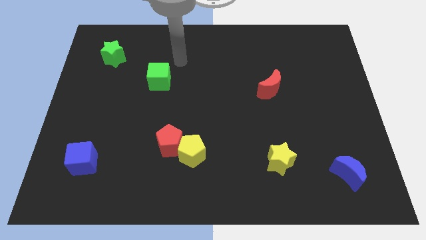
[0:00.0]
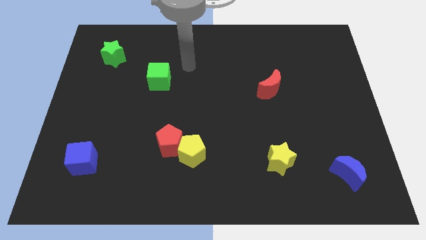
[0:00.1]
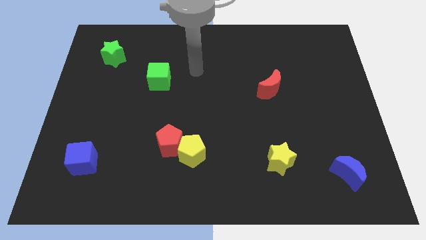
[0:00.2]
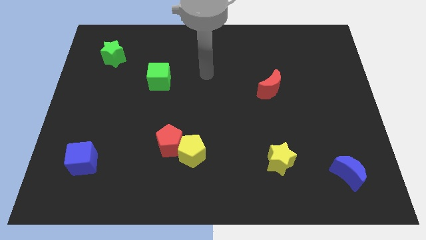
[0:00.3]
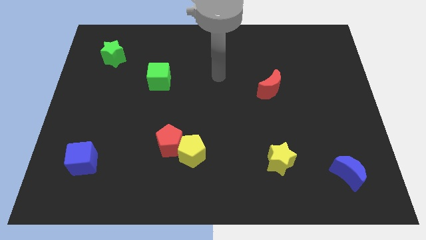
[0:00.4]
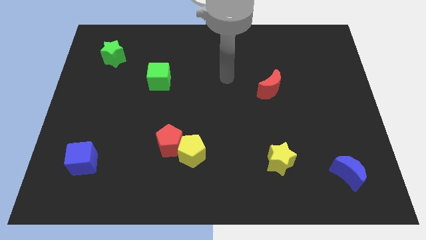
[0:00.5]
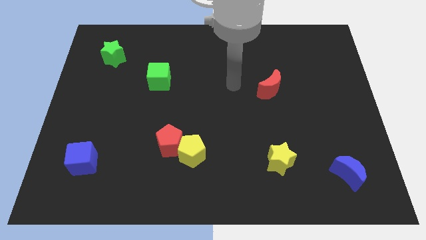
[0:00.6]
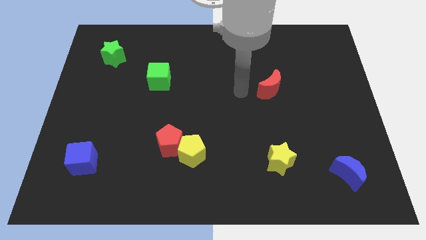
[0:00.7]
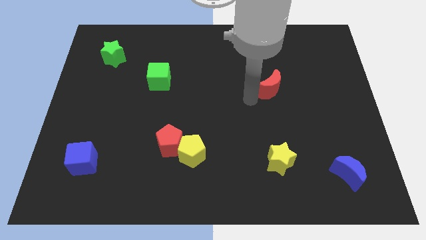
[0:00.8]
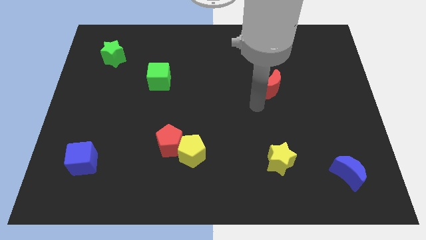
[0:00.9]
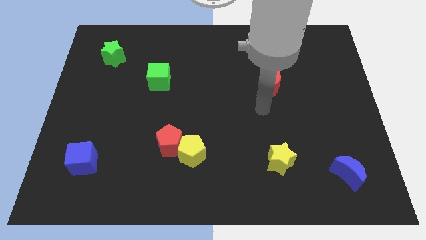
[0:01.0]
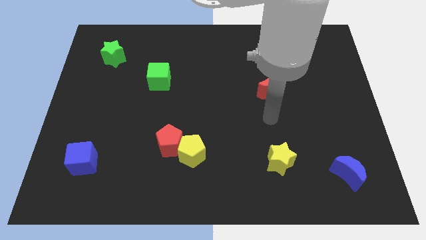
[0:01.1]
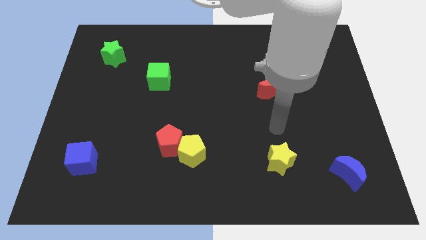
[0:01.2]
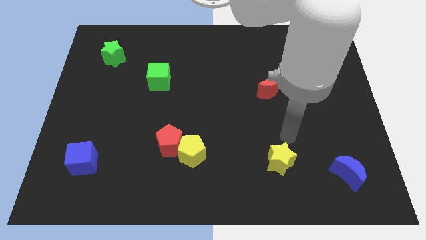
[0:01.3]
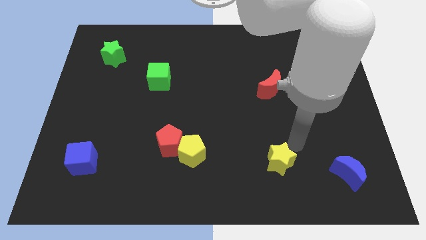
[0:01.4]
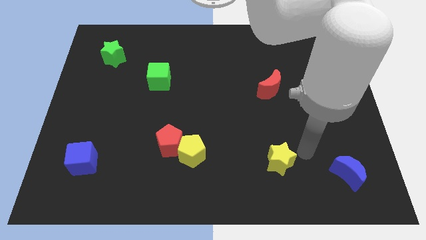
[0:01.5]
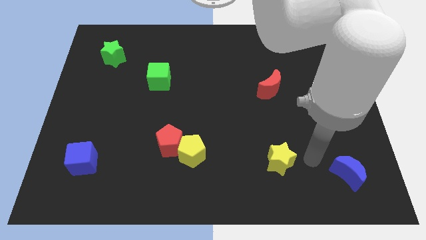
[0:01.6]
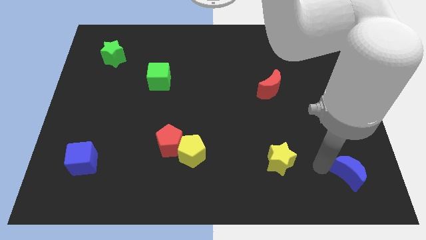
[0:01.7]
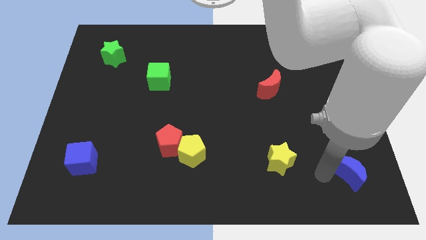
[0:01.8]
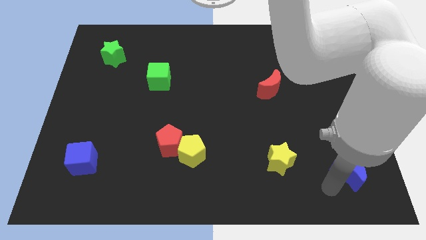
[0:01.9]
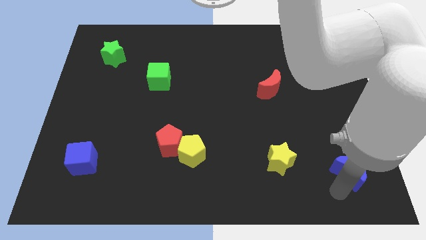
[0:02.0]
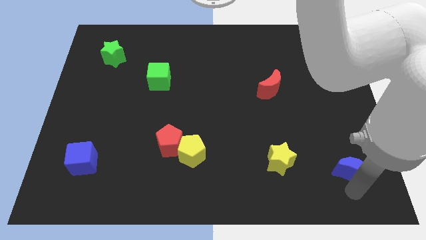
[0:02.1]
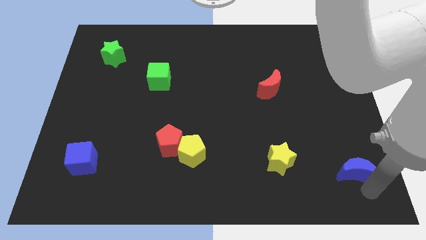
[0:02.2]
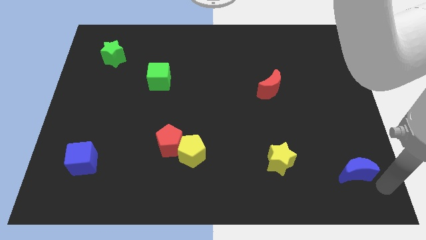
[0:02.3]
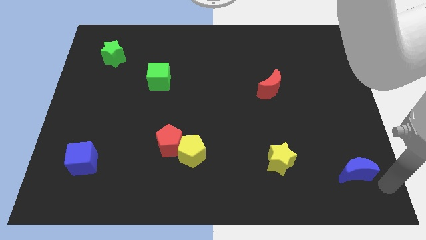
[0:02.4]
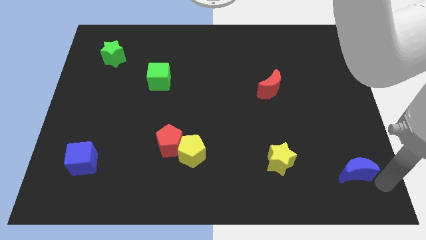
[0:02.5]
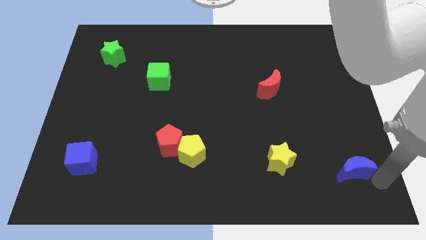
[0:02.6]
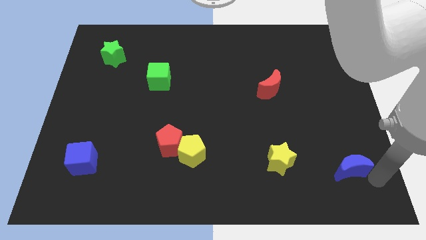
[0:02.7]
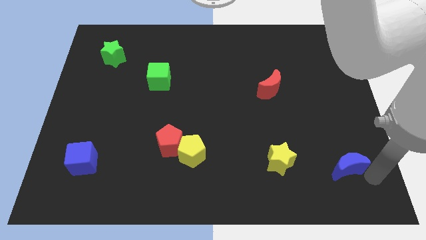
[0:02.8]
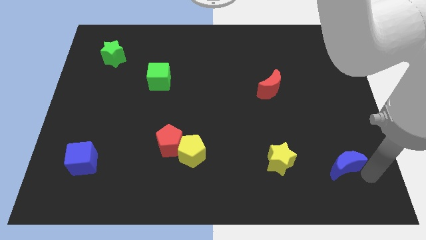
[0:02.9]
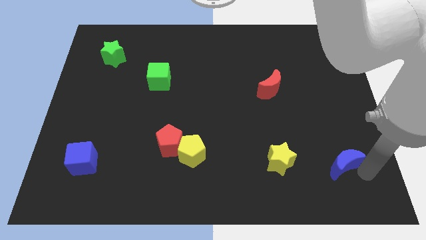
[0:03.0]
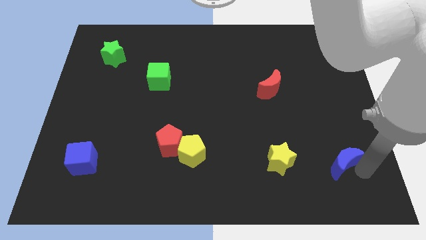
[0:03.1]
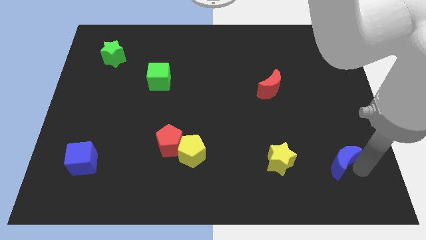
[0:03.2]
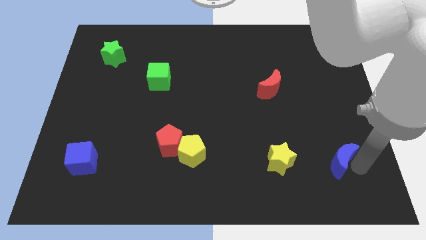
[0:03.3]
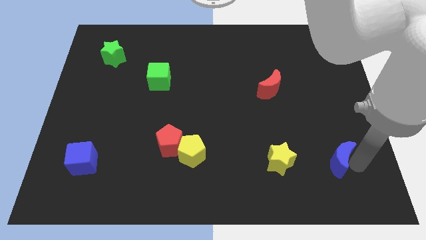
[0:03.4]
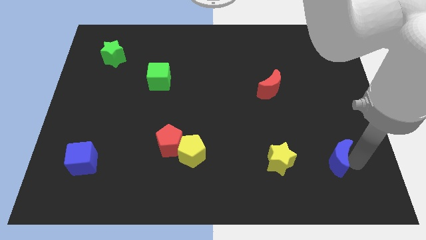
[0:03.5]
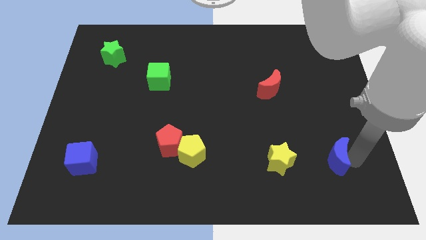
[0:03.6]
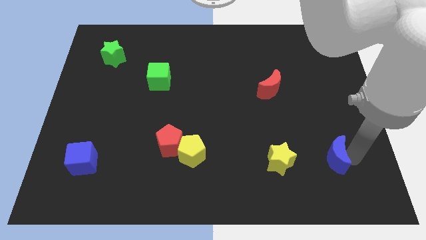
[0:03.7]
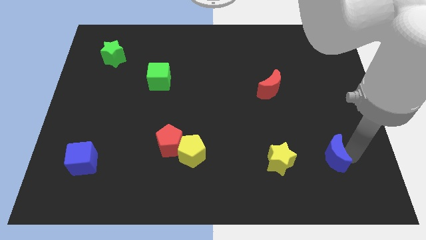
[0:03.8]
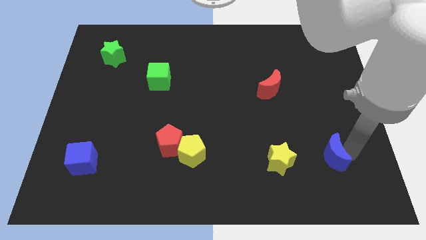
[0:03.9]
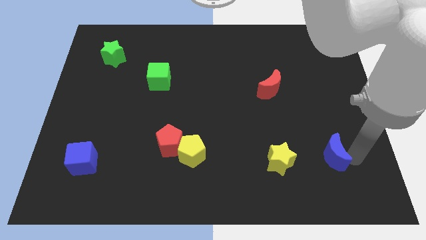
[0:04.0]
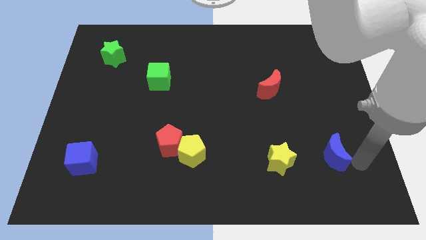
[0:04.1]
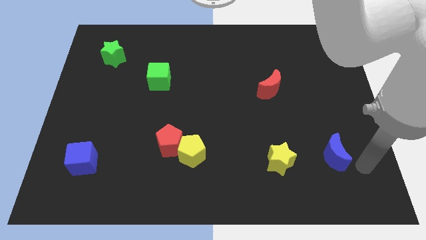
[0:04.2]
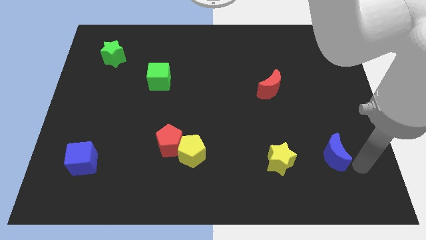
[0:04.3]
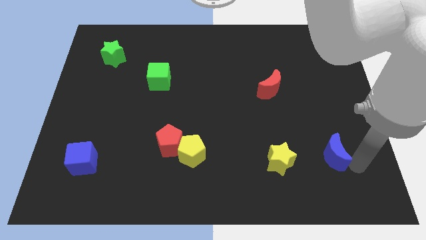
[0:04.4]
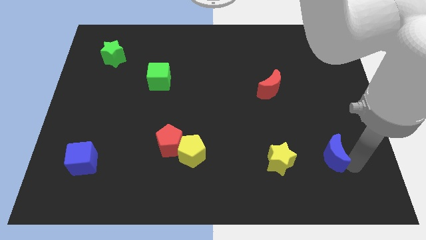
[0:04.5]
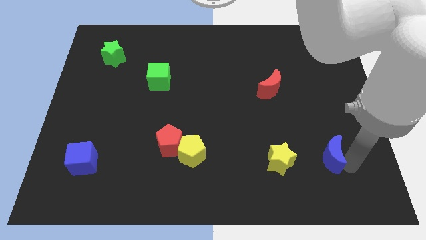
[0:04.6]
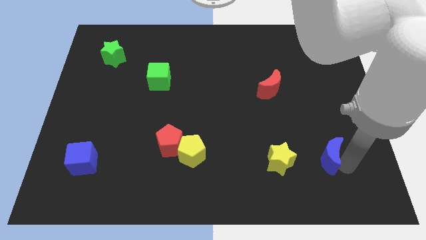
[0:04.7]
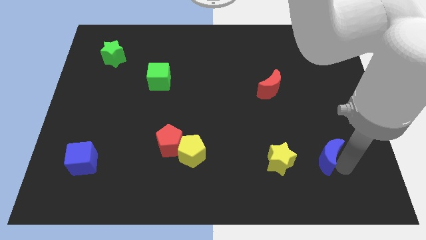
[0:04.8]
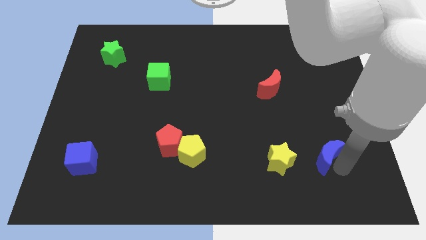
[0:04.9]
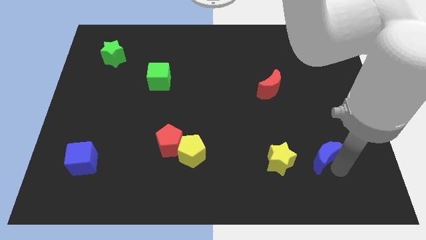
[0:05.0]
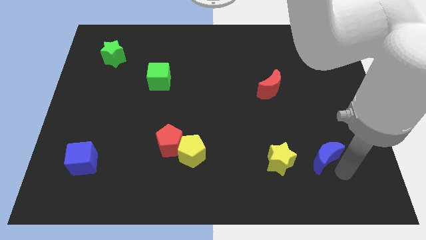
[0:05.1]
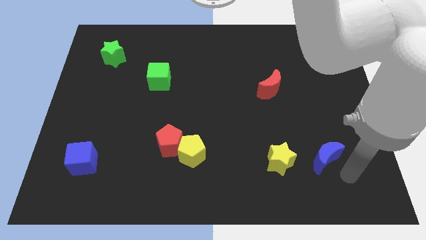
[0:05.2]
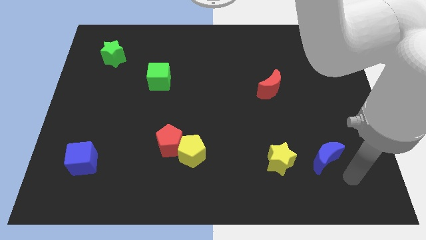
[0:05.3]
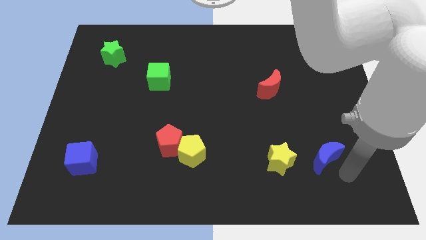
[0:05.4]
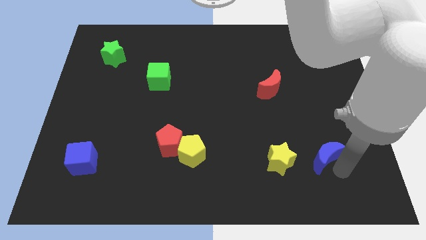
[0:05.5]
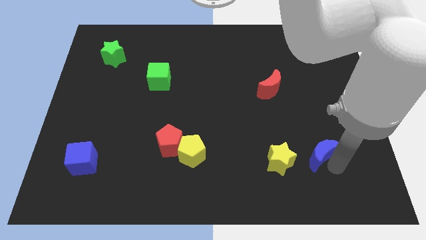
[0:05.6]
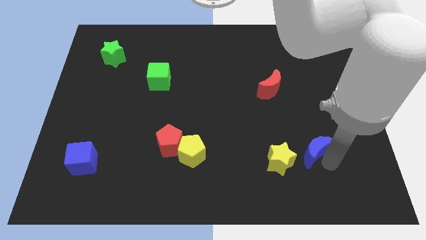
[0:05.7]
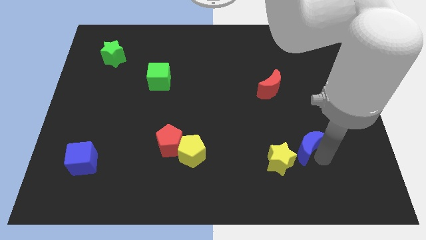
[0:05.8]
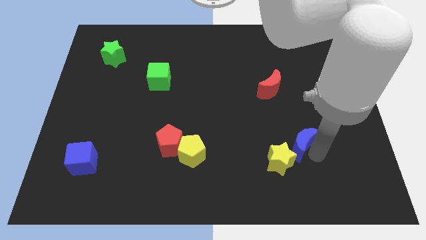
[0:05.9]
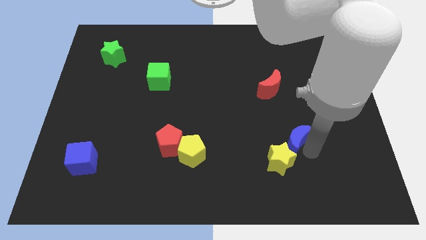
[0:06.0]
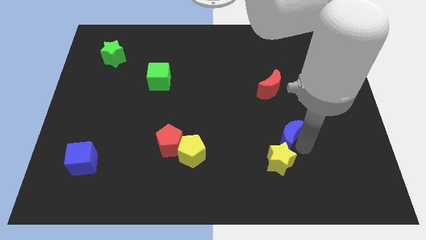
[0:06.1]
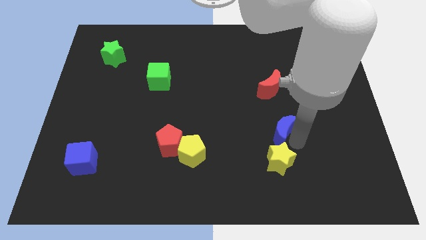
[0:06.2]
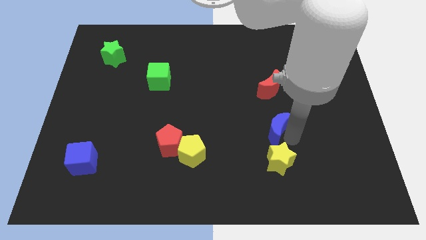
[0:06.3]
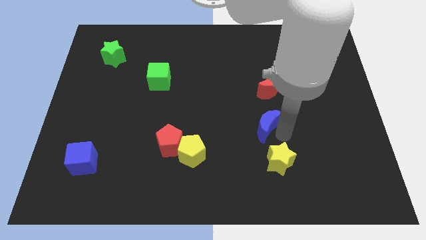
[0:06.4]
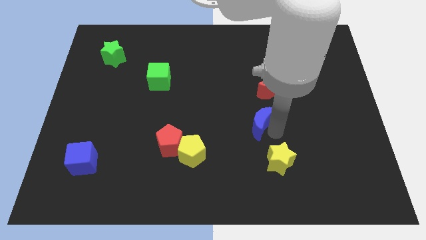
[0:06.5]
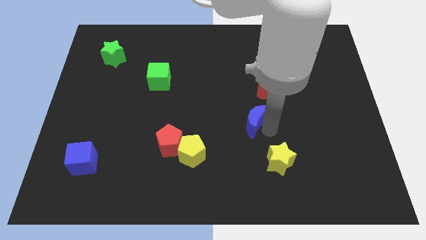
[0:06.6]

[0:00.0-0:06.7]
put the blue moon to the center
